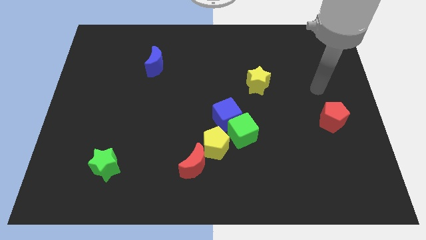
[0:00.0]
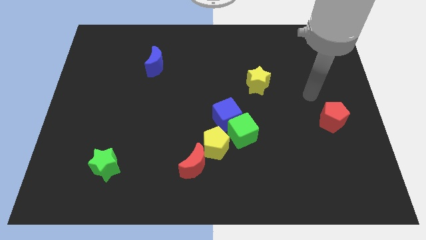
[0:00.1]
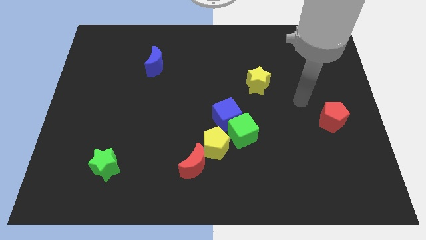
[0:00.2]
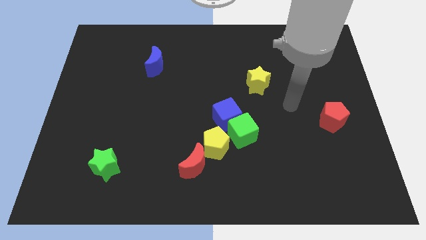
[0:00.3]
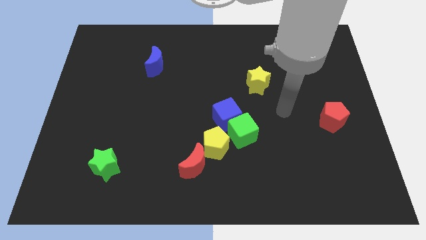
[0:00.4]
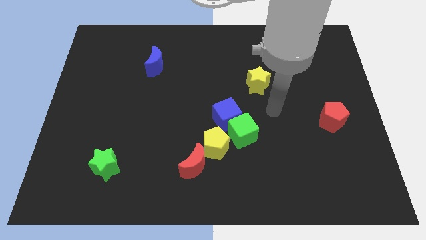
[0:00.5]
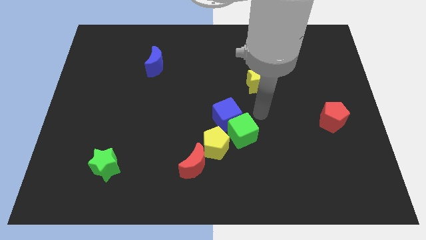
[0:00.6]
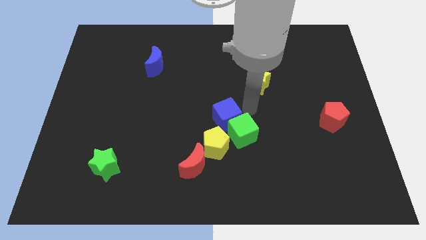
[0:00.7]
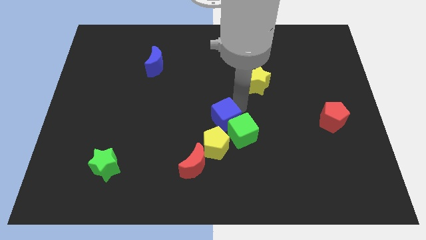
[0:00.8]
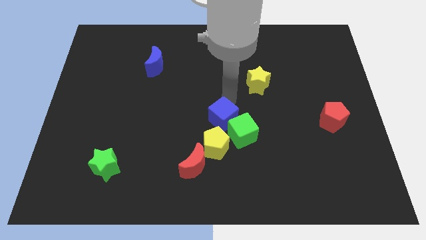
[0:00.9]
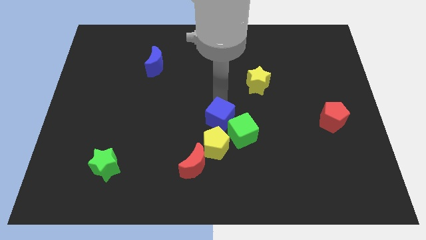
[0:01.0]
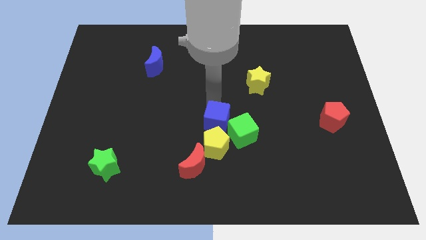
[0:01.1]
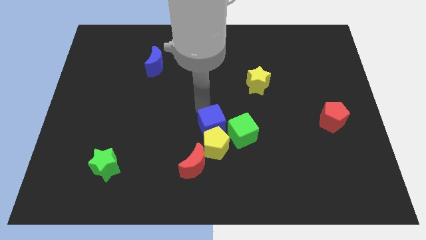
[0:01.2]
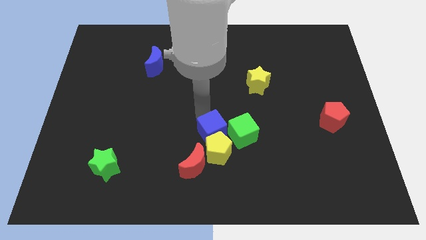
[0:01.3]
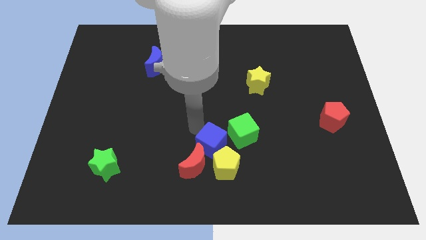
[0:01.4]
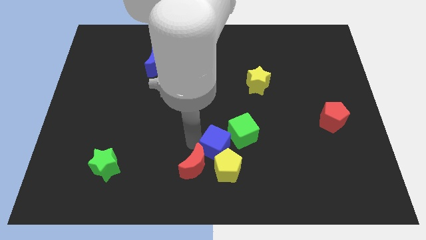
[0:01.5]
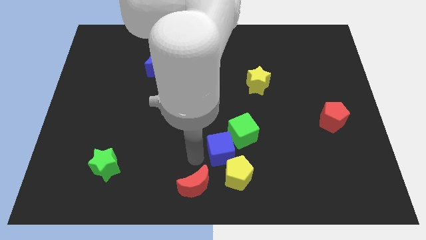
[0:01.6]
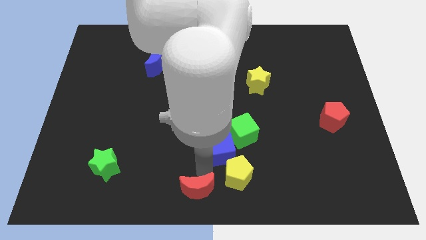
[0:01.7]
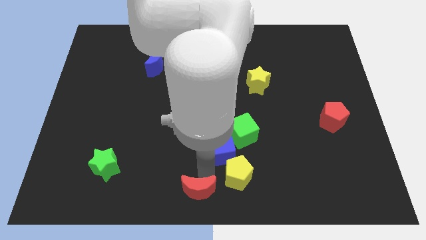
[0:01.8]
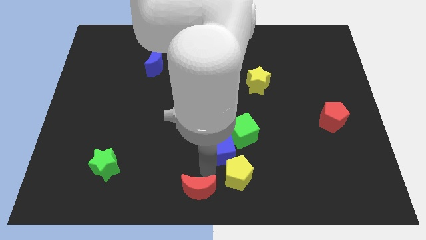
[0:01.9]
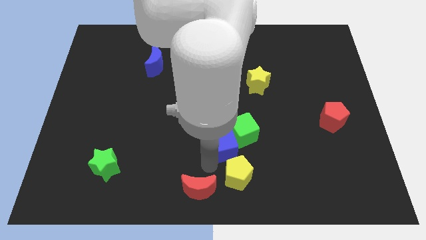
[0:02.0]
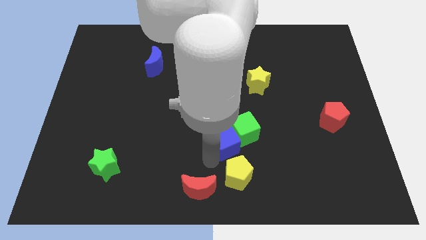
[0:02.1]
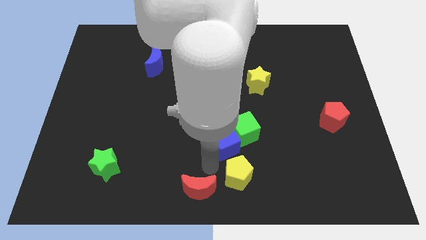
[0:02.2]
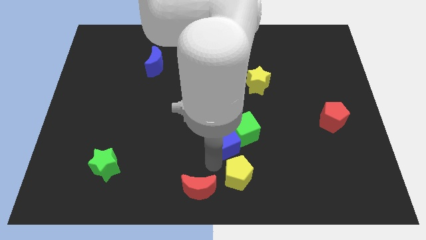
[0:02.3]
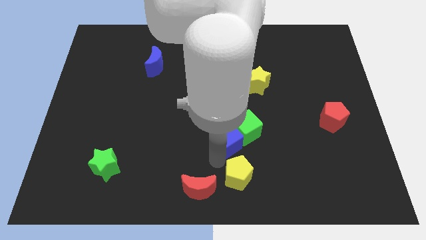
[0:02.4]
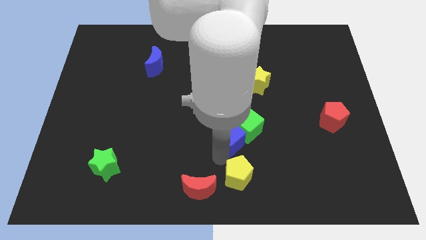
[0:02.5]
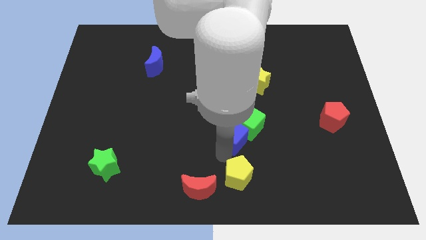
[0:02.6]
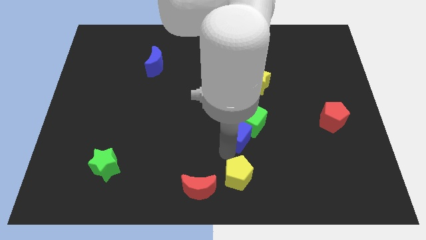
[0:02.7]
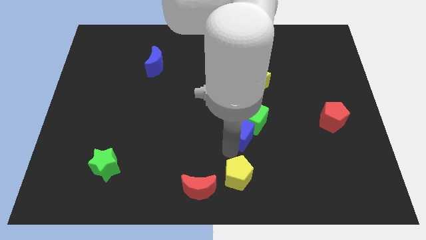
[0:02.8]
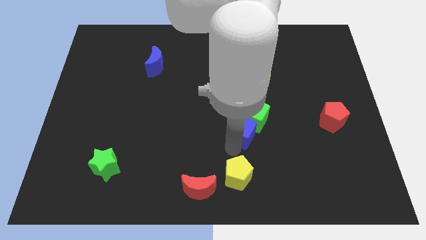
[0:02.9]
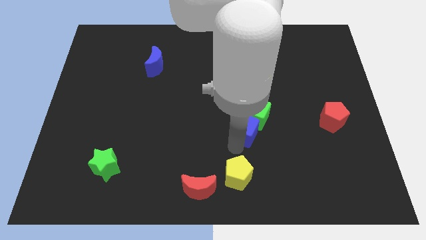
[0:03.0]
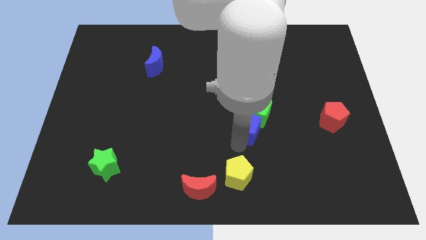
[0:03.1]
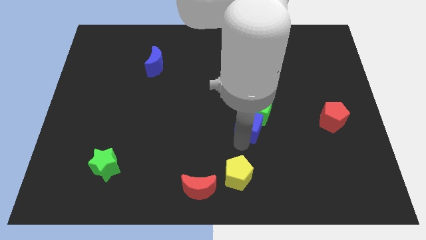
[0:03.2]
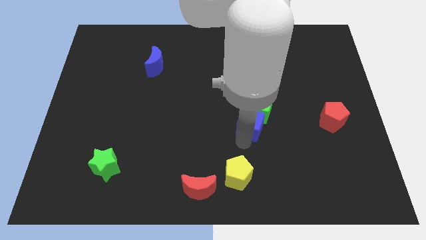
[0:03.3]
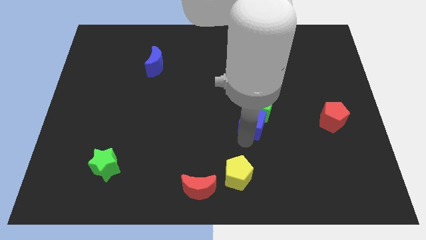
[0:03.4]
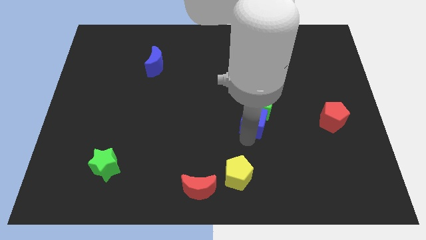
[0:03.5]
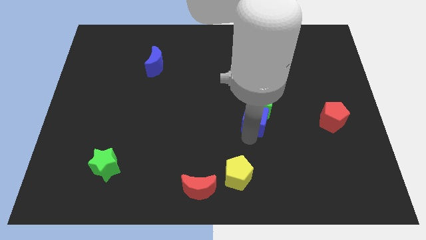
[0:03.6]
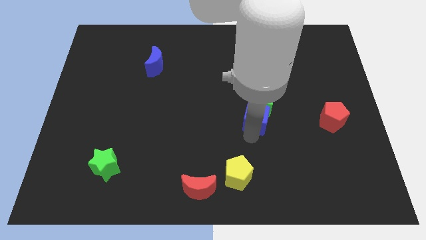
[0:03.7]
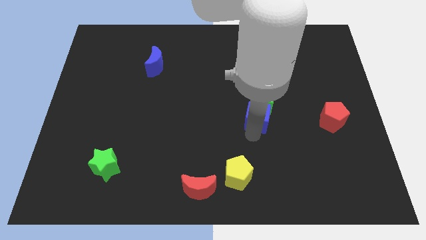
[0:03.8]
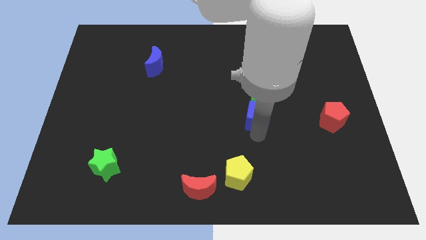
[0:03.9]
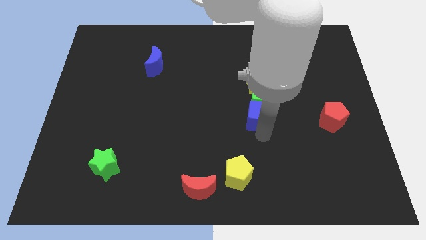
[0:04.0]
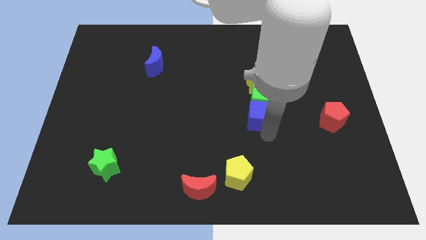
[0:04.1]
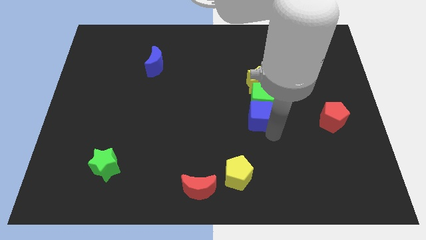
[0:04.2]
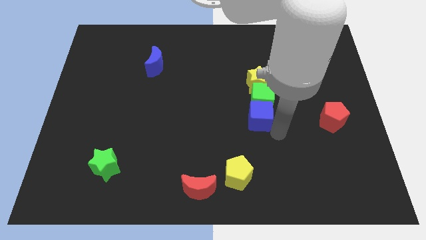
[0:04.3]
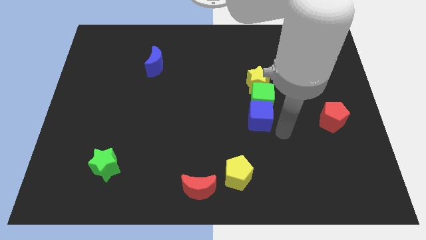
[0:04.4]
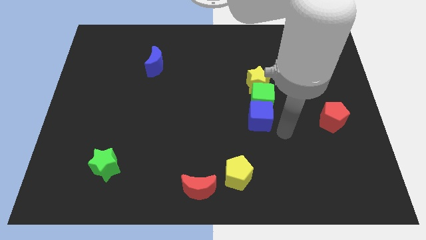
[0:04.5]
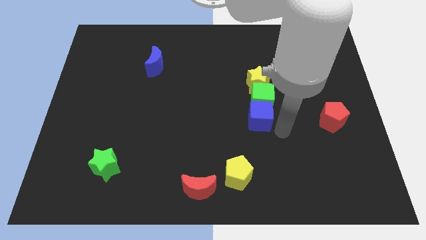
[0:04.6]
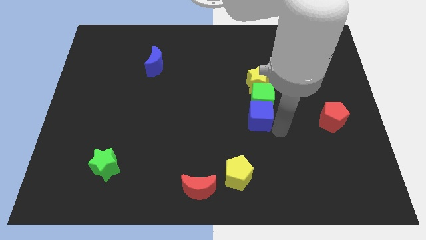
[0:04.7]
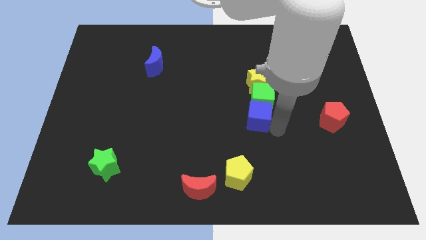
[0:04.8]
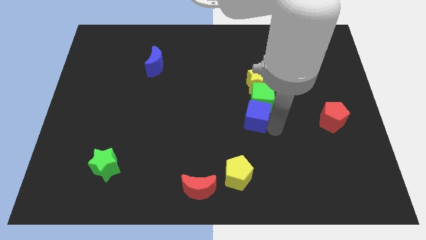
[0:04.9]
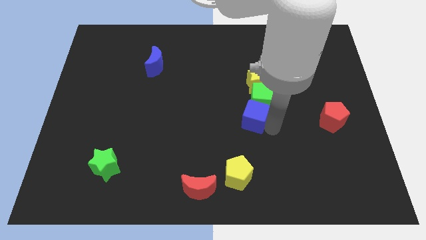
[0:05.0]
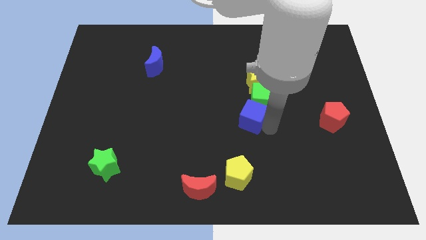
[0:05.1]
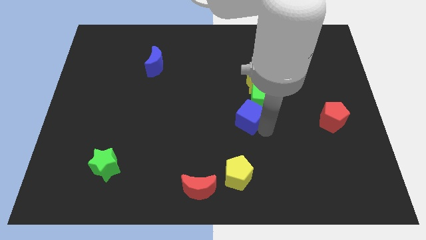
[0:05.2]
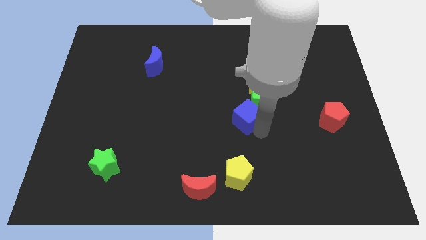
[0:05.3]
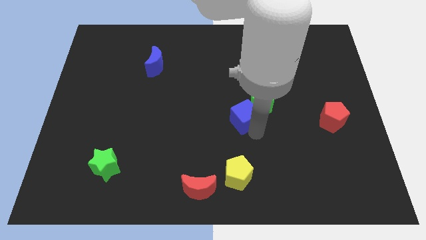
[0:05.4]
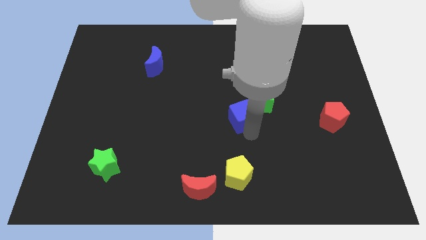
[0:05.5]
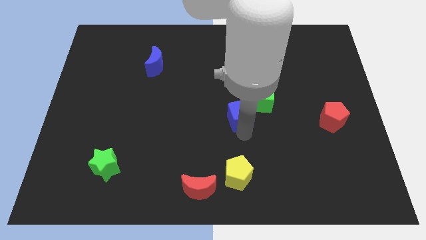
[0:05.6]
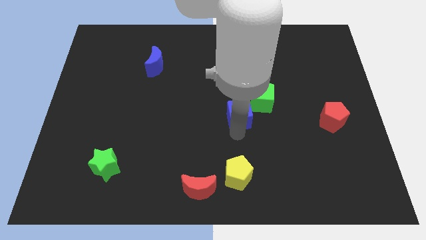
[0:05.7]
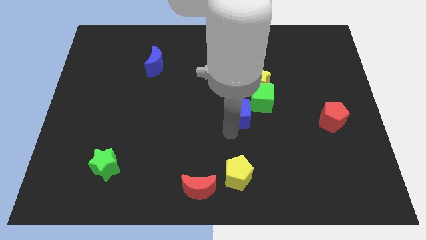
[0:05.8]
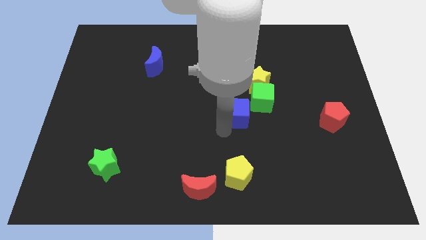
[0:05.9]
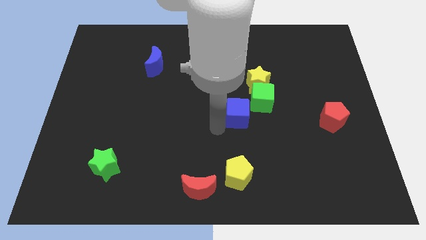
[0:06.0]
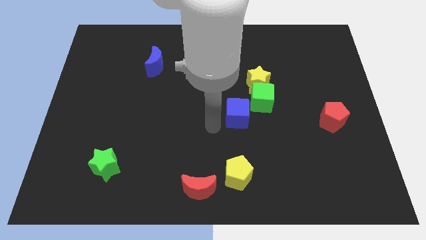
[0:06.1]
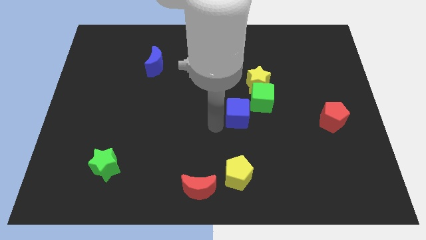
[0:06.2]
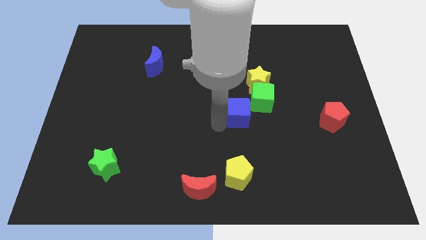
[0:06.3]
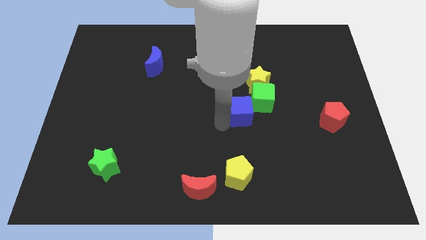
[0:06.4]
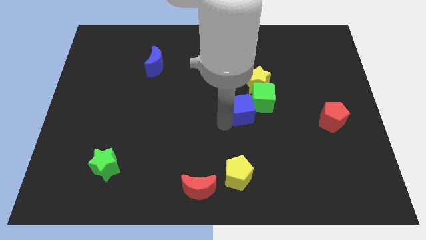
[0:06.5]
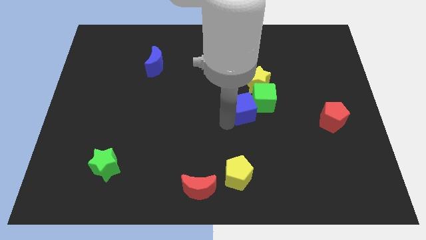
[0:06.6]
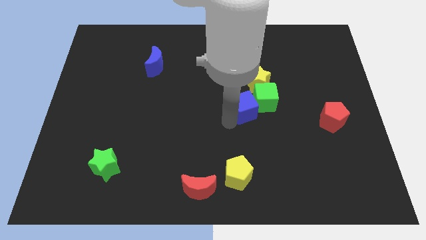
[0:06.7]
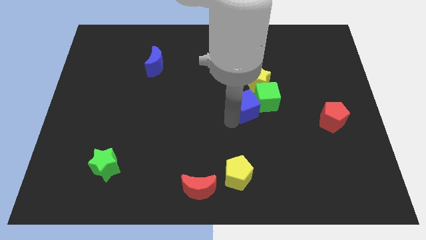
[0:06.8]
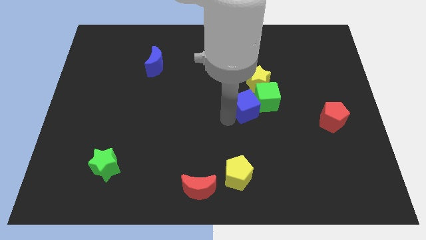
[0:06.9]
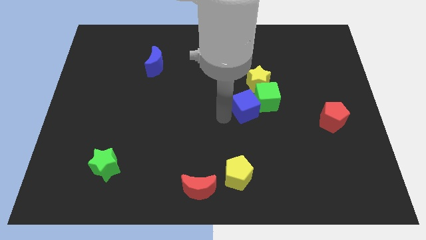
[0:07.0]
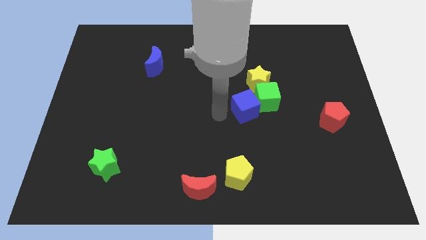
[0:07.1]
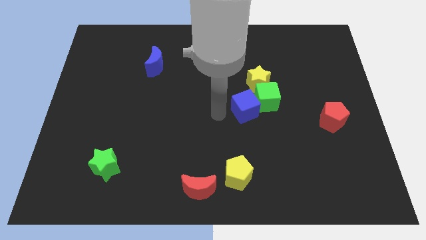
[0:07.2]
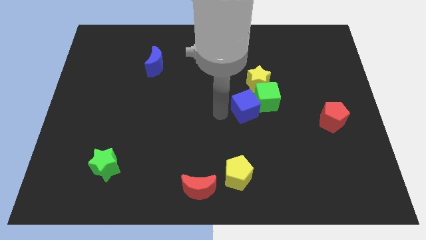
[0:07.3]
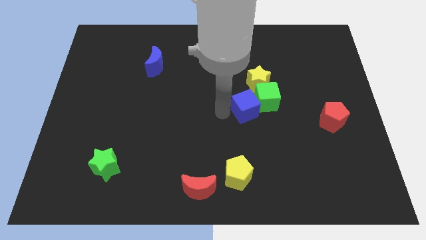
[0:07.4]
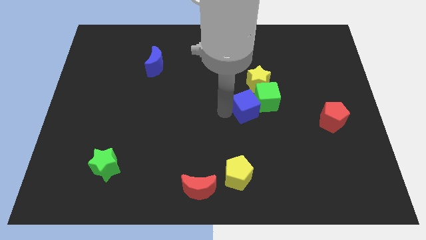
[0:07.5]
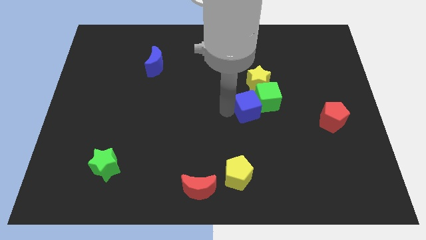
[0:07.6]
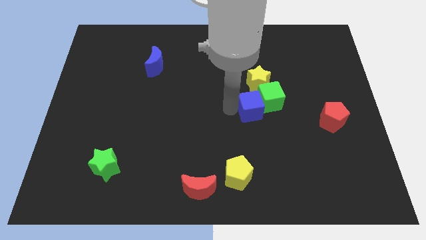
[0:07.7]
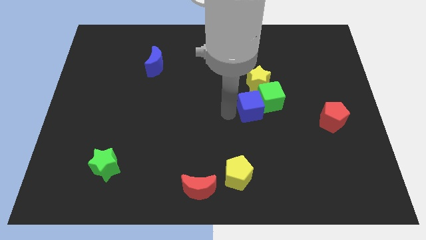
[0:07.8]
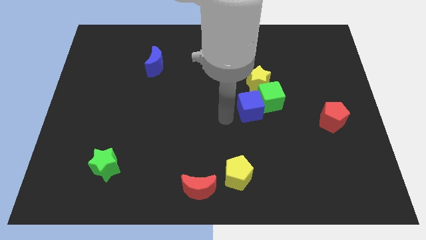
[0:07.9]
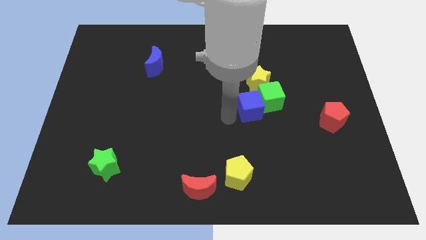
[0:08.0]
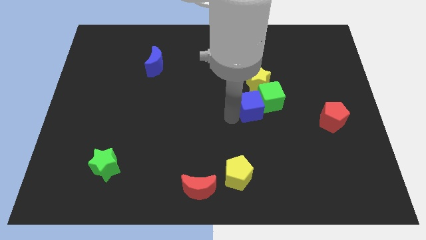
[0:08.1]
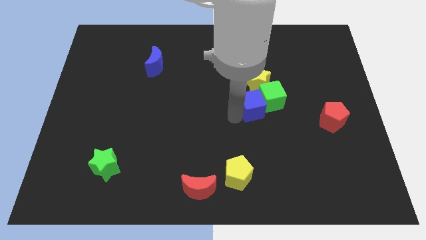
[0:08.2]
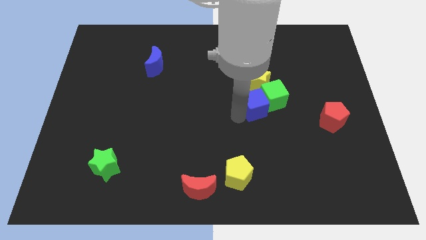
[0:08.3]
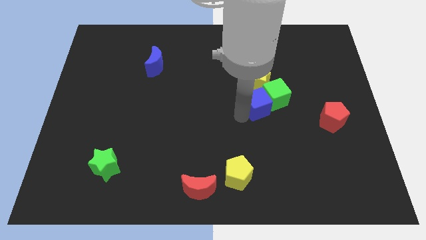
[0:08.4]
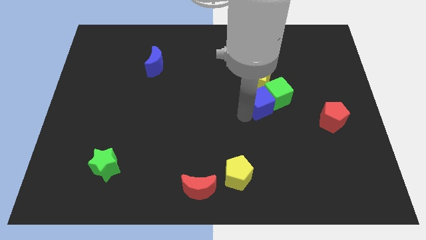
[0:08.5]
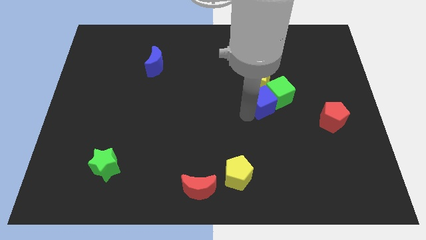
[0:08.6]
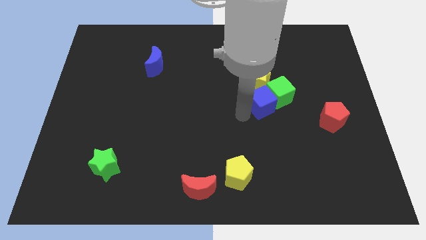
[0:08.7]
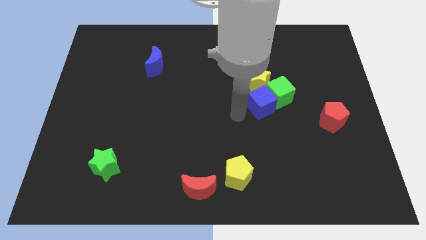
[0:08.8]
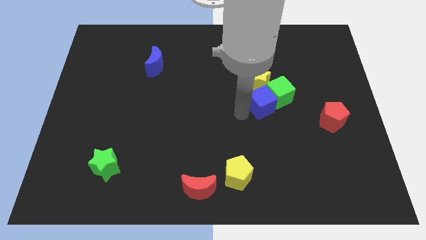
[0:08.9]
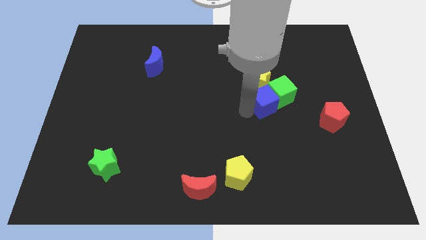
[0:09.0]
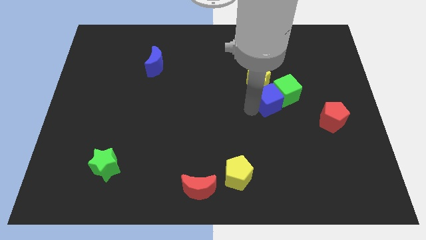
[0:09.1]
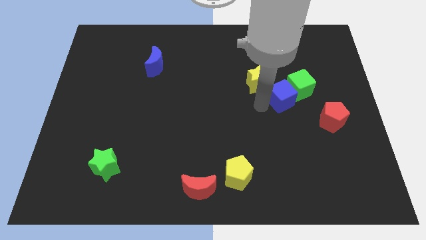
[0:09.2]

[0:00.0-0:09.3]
move the blue cube right of the yellow star
